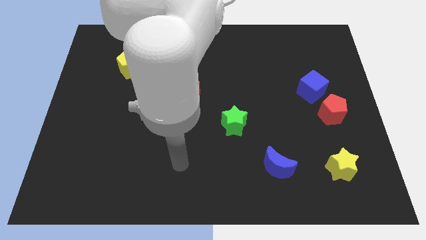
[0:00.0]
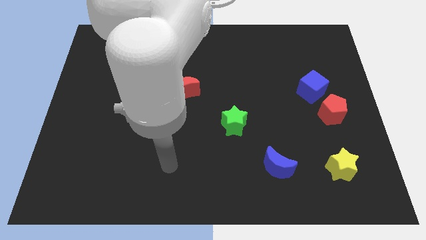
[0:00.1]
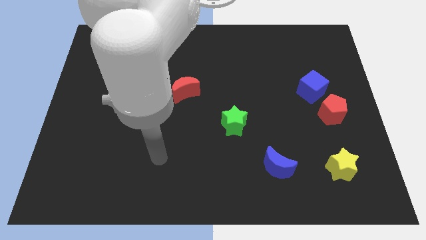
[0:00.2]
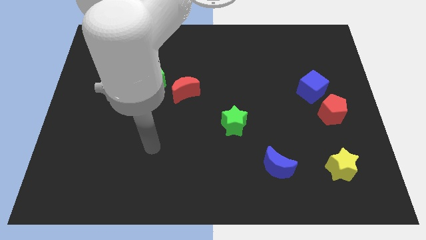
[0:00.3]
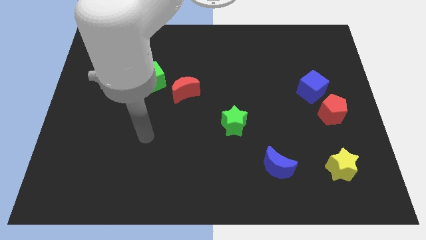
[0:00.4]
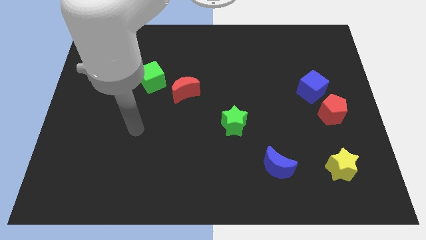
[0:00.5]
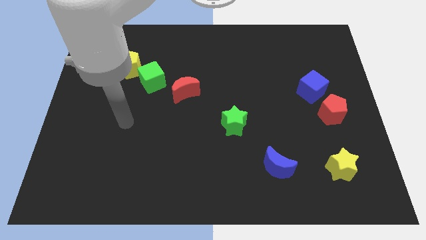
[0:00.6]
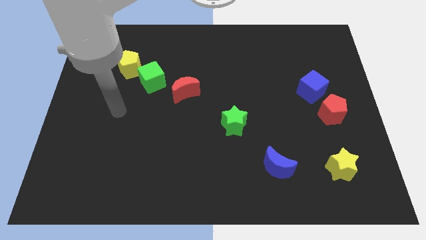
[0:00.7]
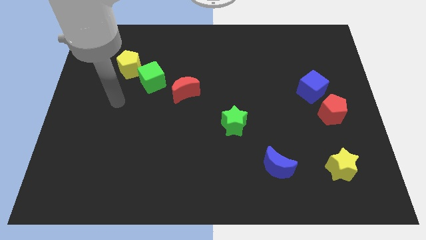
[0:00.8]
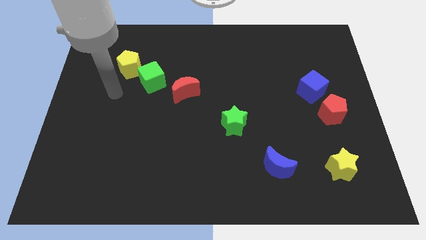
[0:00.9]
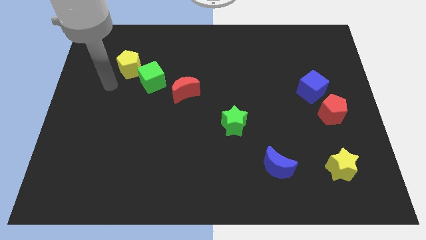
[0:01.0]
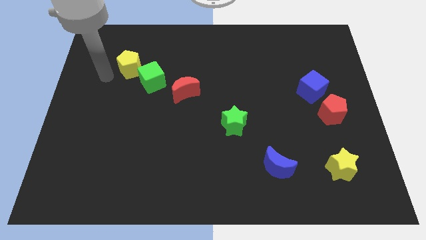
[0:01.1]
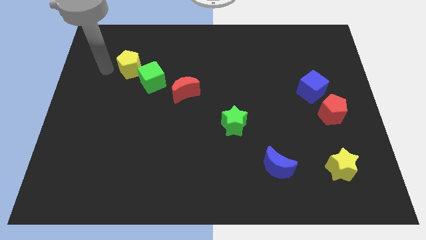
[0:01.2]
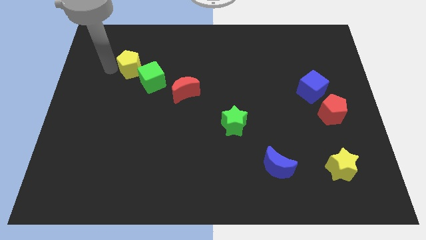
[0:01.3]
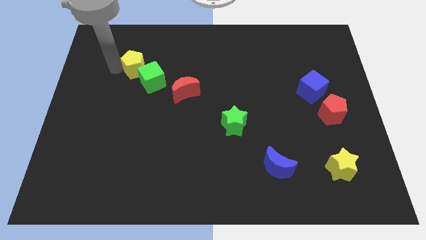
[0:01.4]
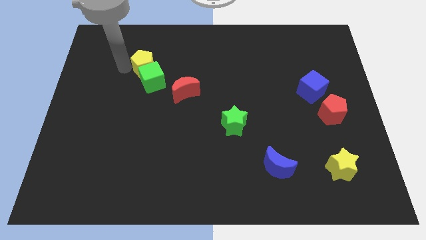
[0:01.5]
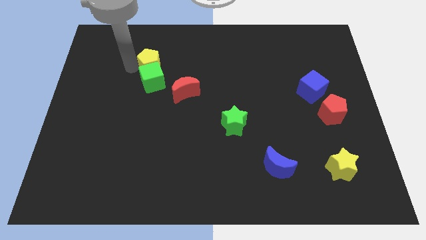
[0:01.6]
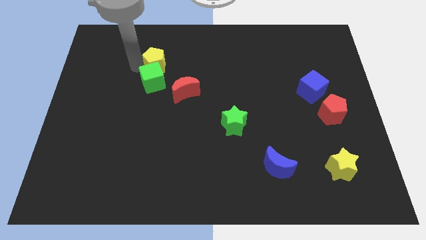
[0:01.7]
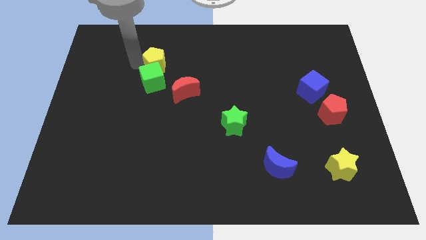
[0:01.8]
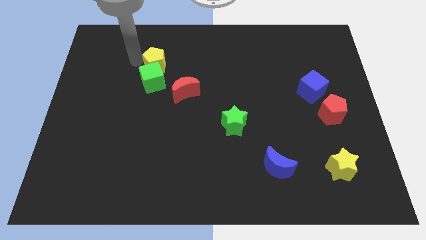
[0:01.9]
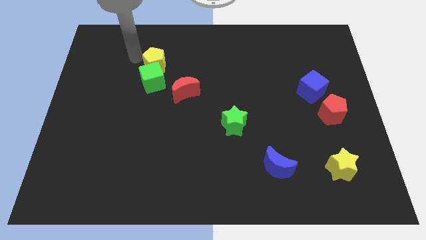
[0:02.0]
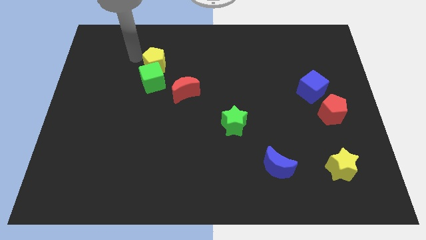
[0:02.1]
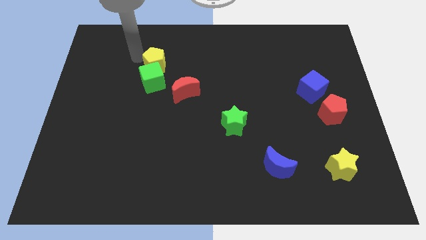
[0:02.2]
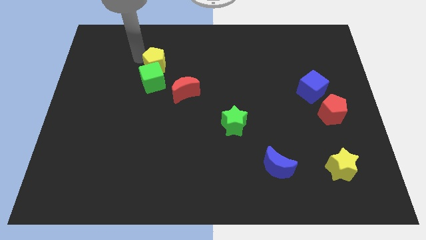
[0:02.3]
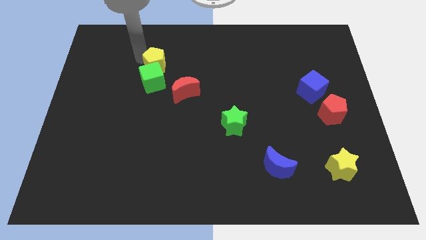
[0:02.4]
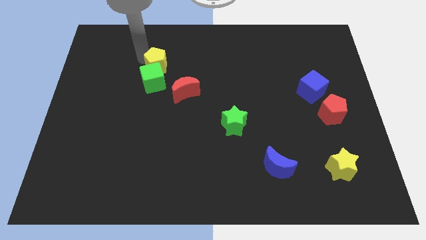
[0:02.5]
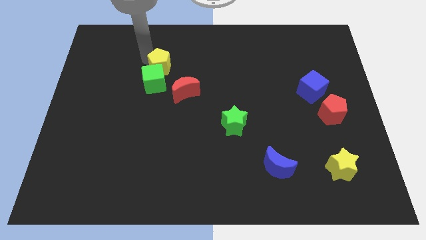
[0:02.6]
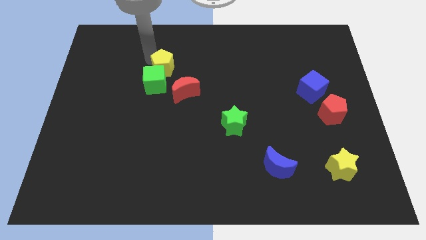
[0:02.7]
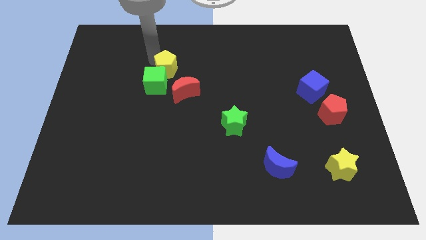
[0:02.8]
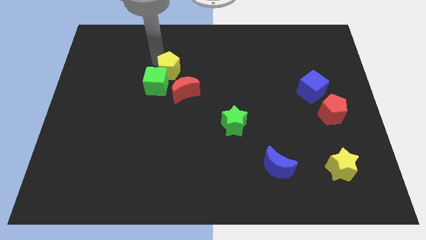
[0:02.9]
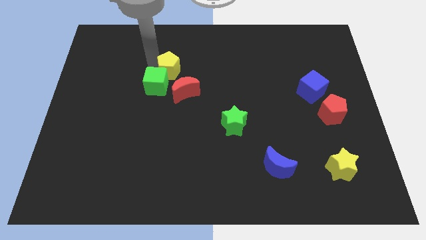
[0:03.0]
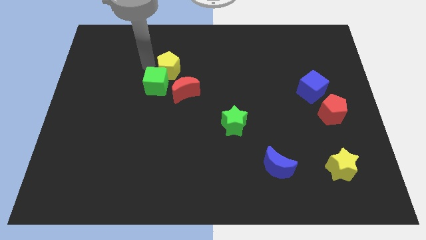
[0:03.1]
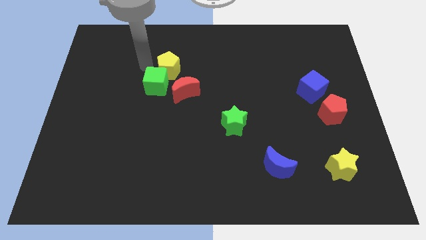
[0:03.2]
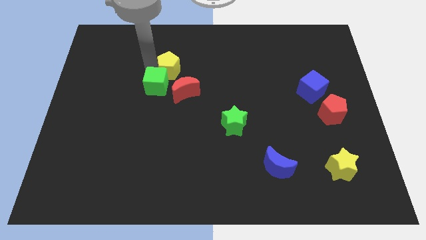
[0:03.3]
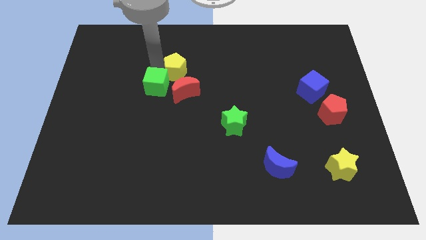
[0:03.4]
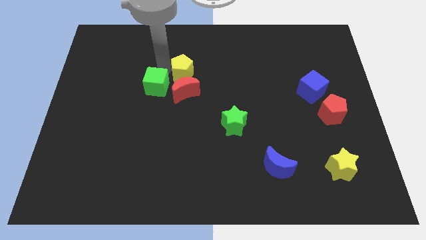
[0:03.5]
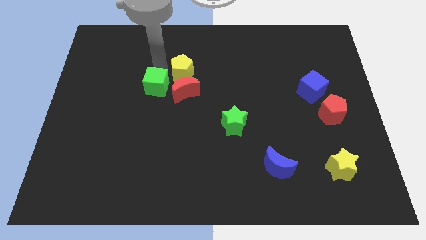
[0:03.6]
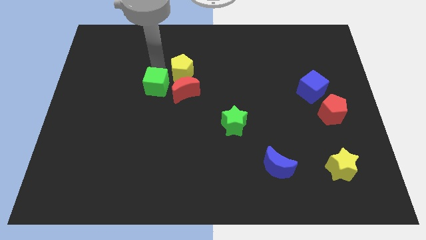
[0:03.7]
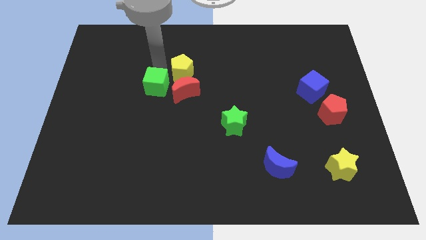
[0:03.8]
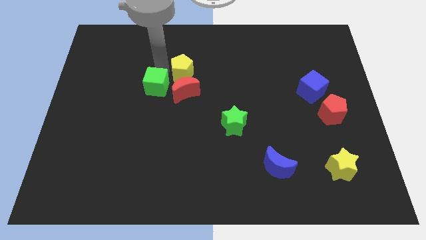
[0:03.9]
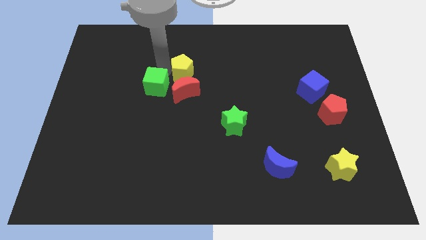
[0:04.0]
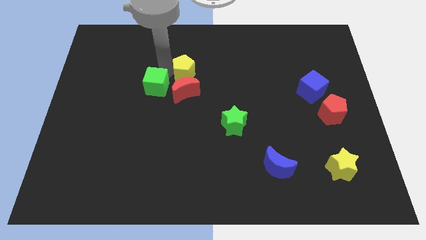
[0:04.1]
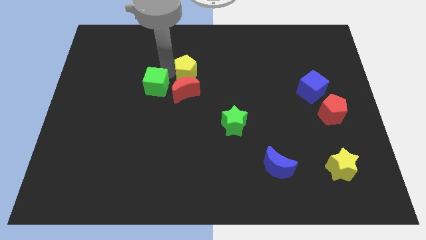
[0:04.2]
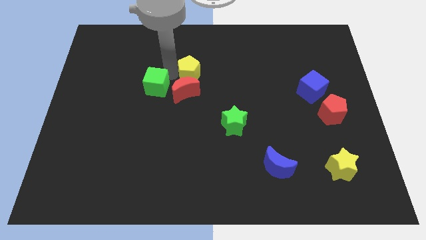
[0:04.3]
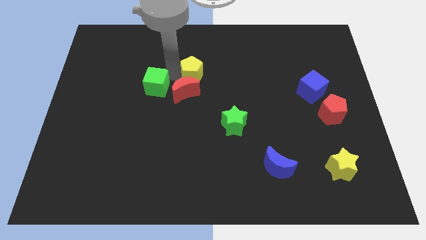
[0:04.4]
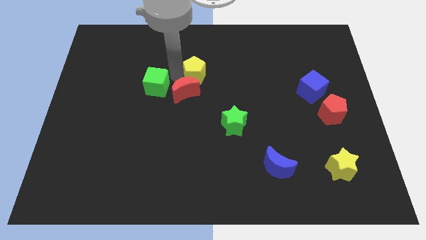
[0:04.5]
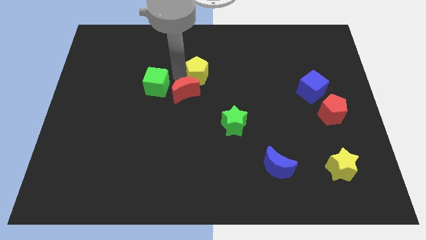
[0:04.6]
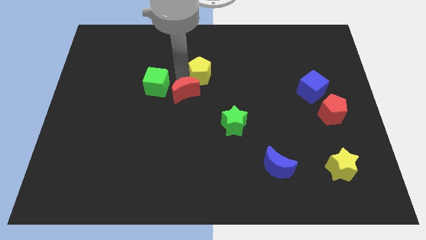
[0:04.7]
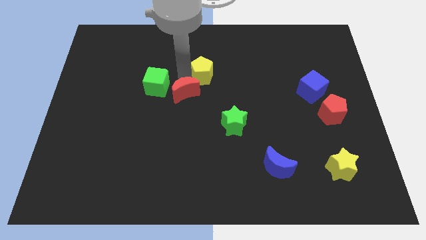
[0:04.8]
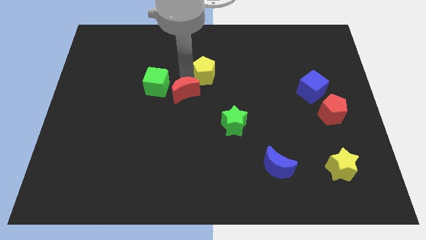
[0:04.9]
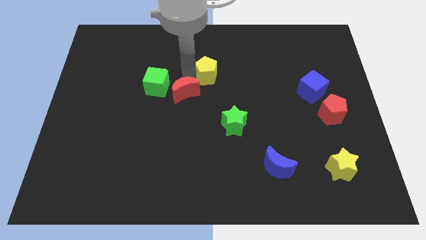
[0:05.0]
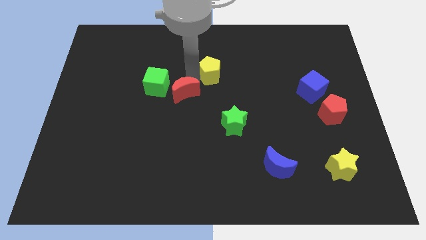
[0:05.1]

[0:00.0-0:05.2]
push the yellow pentagon right

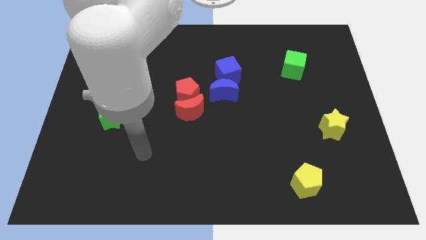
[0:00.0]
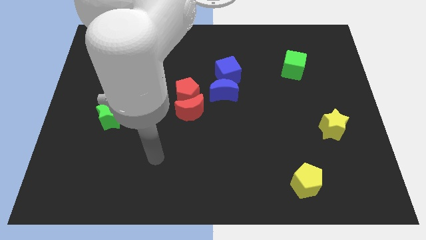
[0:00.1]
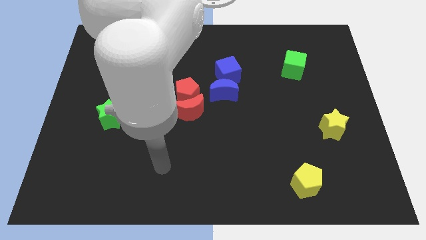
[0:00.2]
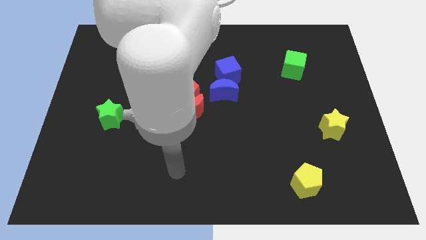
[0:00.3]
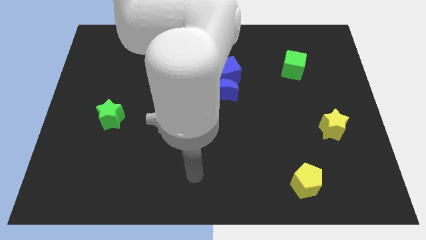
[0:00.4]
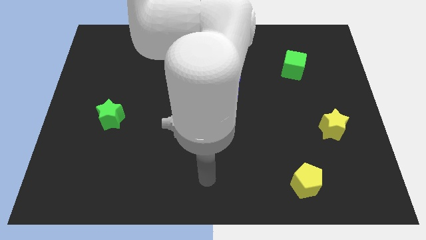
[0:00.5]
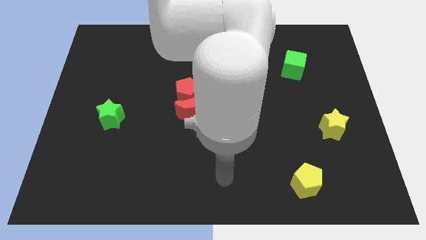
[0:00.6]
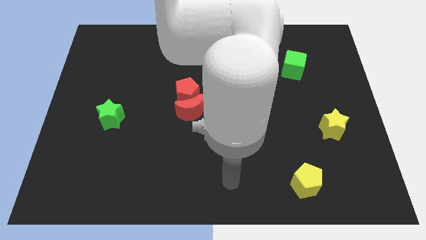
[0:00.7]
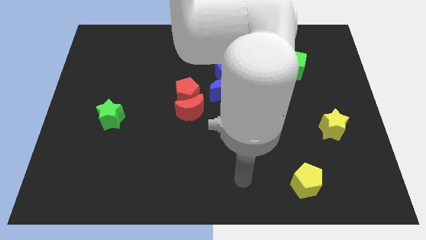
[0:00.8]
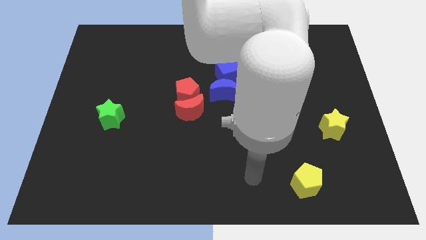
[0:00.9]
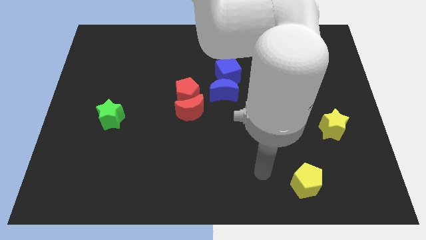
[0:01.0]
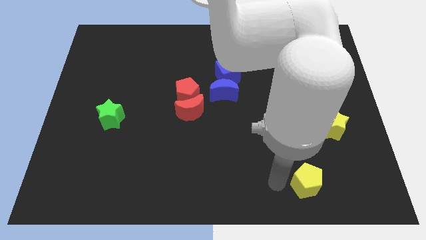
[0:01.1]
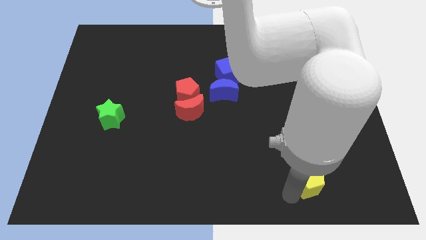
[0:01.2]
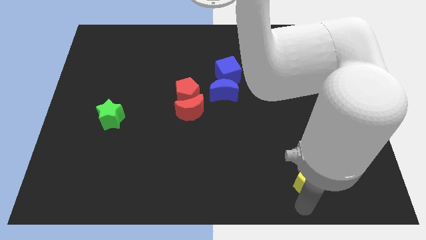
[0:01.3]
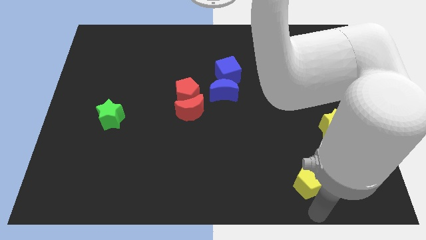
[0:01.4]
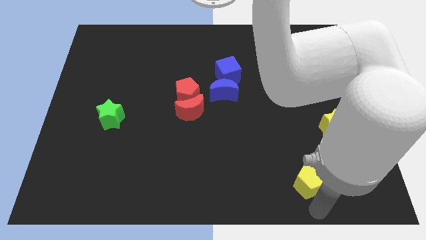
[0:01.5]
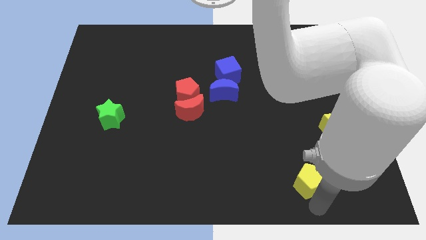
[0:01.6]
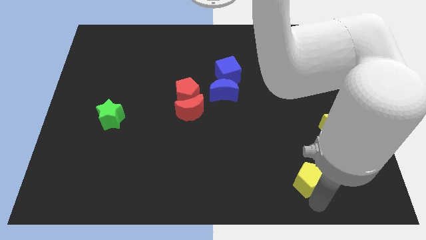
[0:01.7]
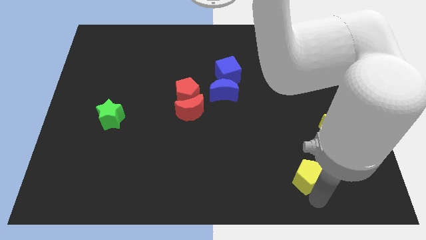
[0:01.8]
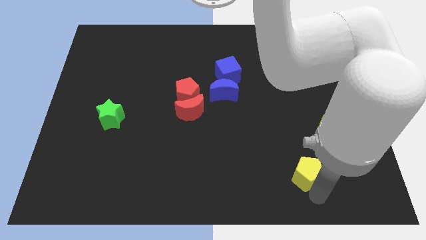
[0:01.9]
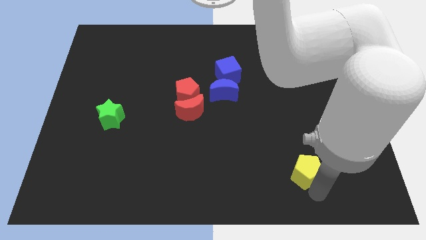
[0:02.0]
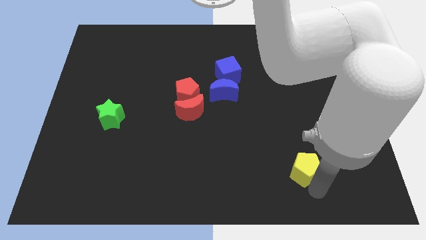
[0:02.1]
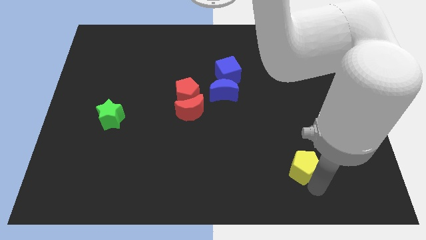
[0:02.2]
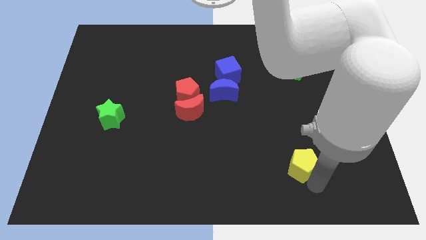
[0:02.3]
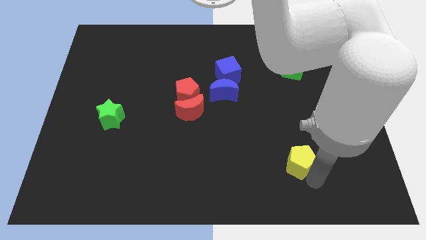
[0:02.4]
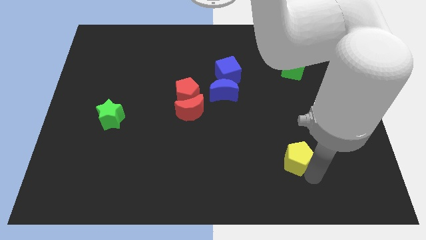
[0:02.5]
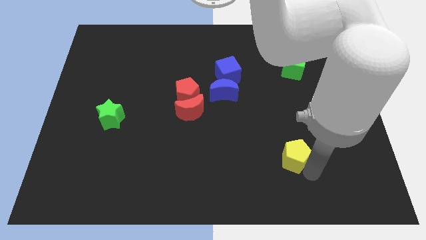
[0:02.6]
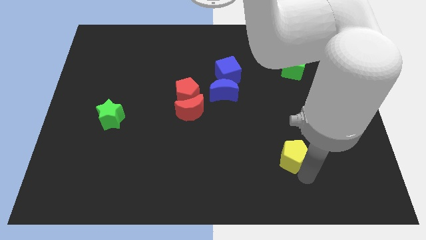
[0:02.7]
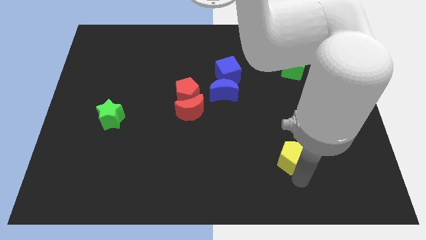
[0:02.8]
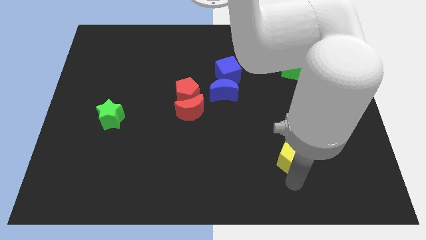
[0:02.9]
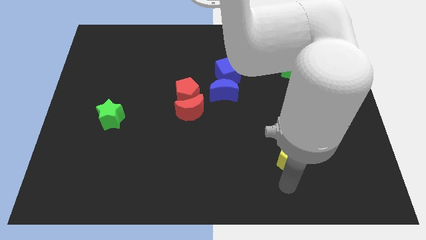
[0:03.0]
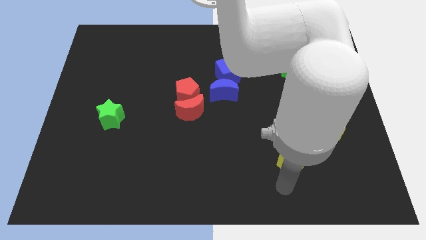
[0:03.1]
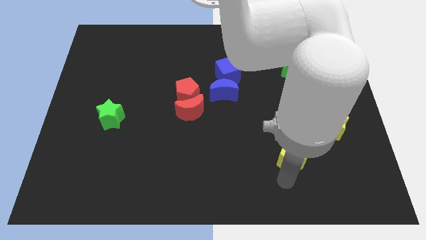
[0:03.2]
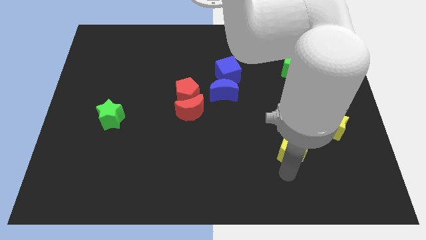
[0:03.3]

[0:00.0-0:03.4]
push the yellow pentagon a little bit upwards
